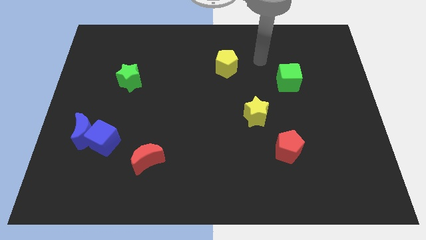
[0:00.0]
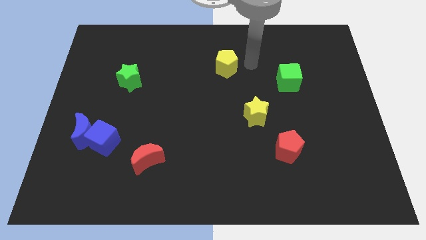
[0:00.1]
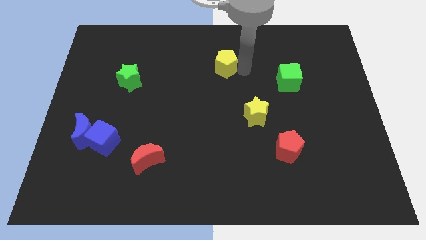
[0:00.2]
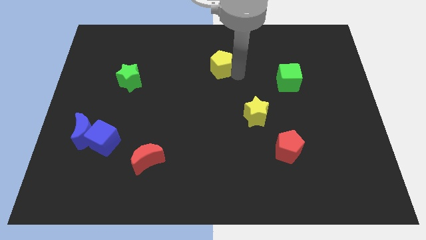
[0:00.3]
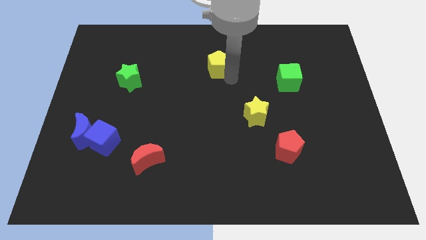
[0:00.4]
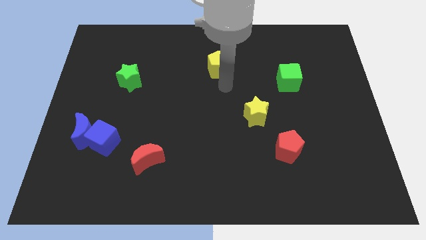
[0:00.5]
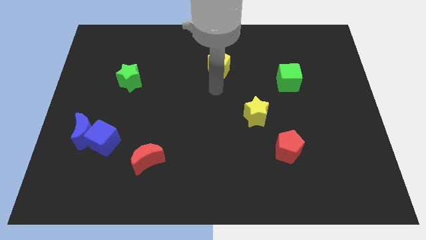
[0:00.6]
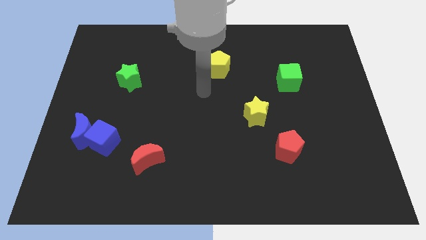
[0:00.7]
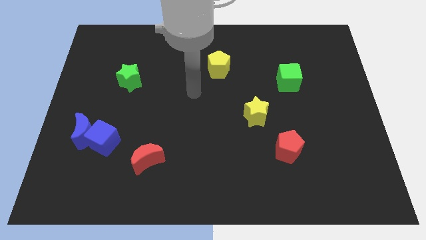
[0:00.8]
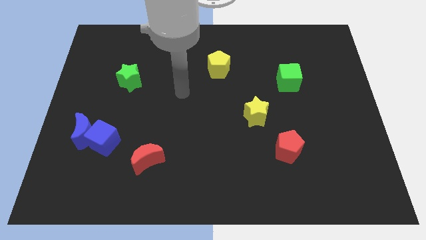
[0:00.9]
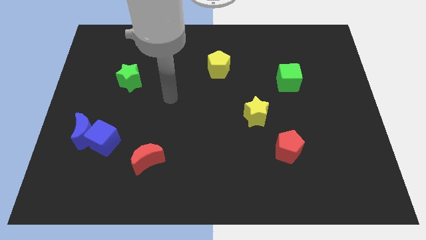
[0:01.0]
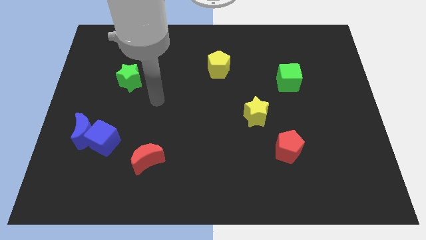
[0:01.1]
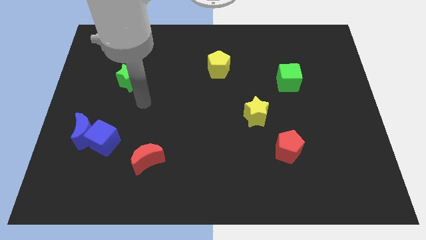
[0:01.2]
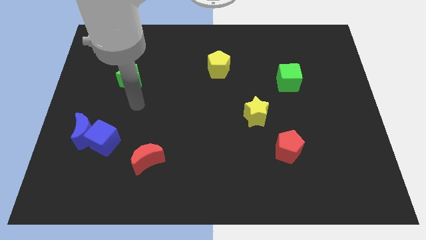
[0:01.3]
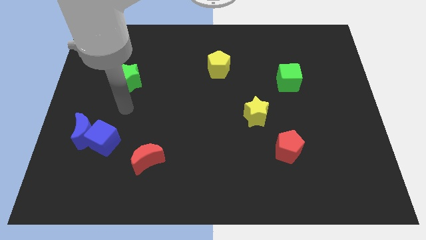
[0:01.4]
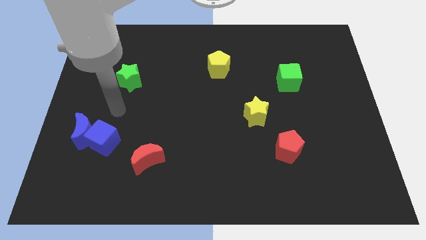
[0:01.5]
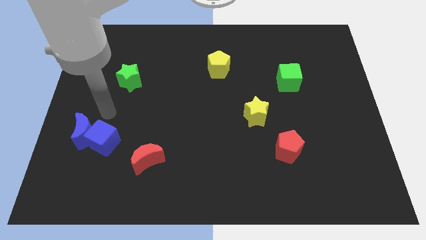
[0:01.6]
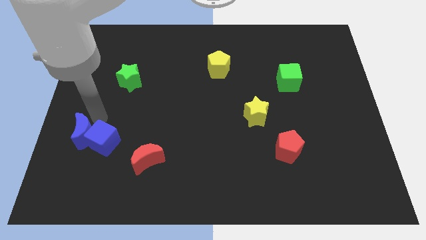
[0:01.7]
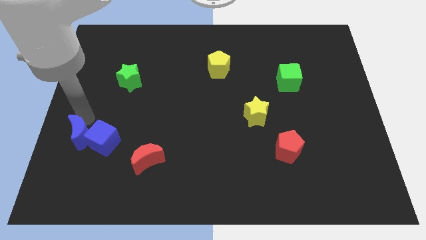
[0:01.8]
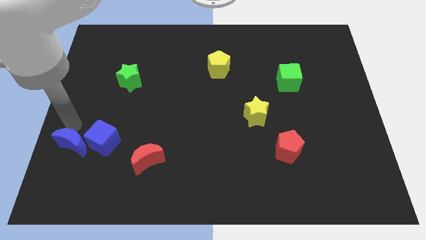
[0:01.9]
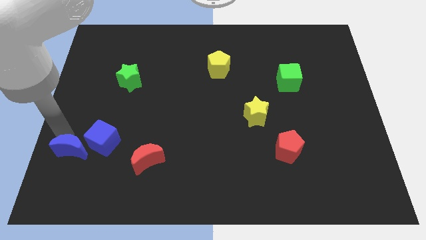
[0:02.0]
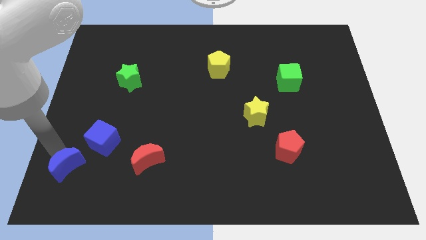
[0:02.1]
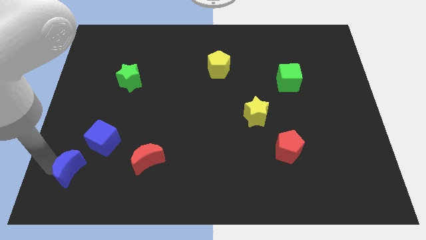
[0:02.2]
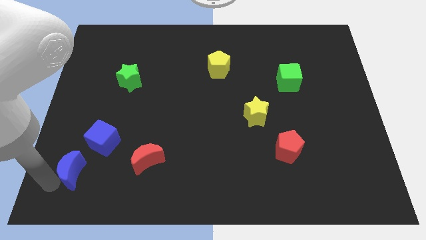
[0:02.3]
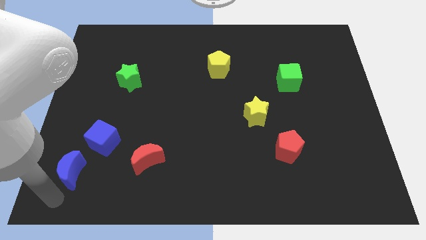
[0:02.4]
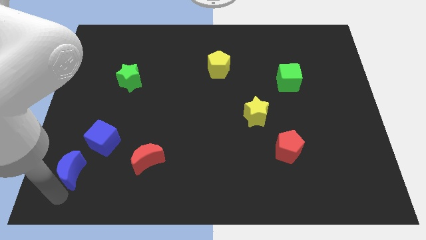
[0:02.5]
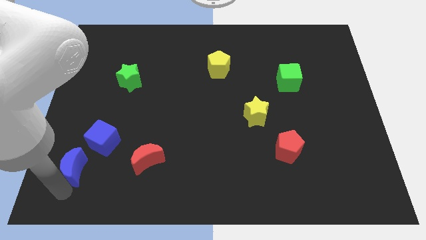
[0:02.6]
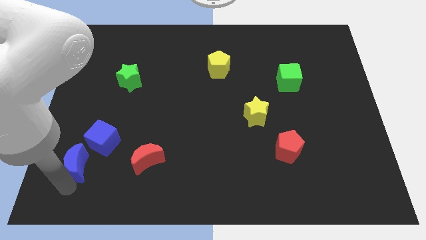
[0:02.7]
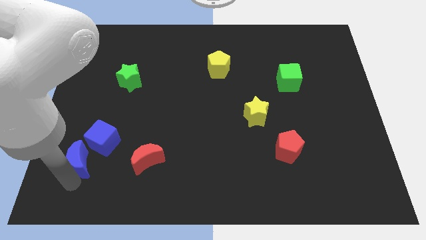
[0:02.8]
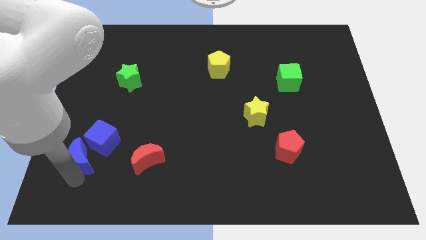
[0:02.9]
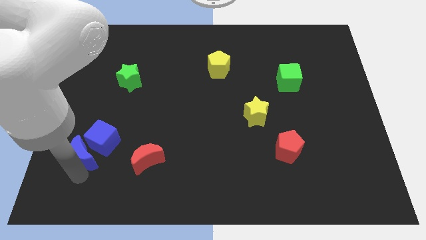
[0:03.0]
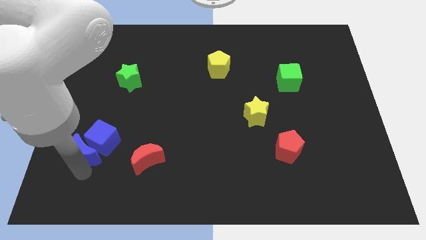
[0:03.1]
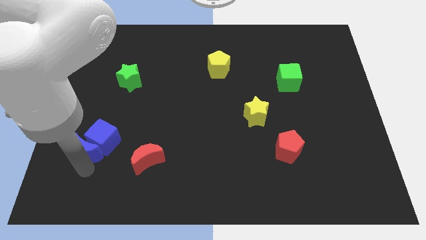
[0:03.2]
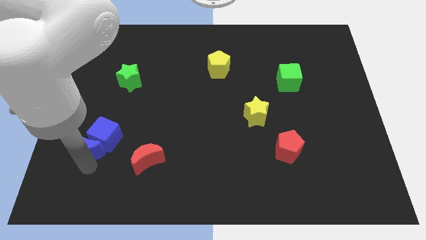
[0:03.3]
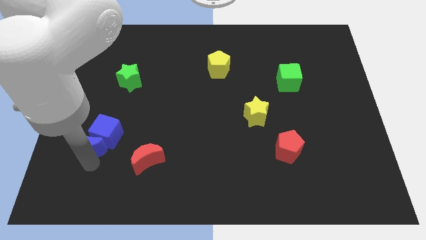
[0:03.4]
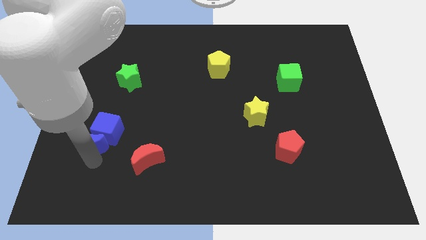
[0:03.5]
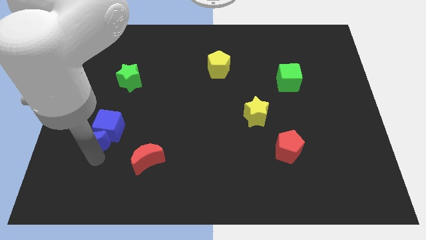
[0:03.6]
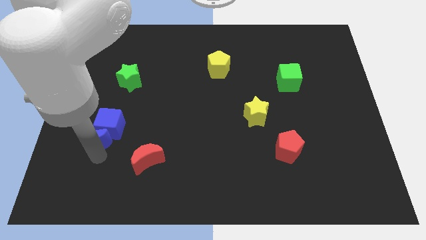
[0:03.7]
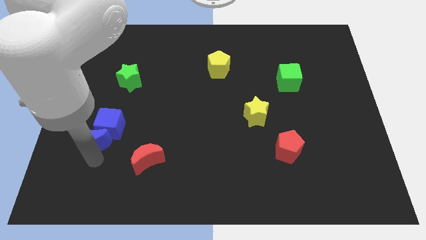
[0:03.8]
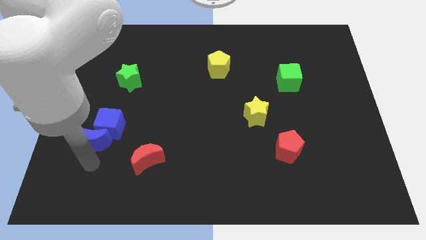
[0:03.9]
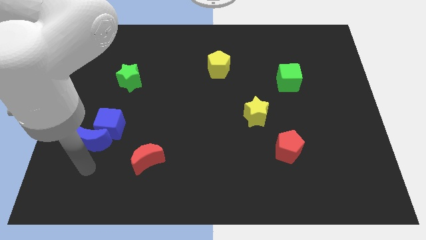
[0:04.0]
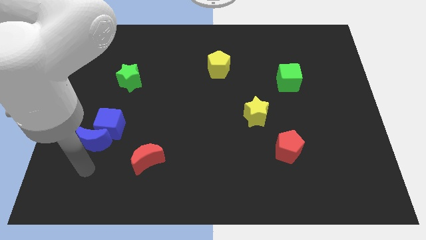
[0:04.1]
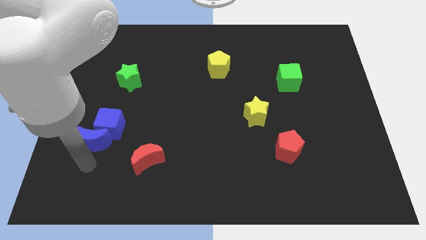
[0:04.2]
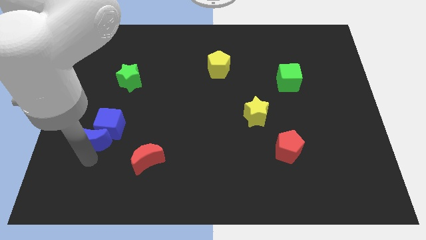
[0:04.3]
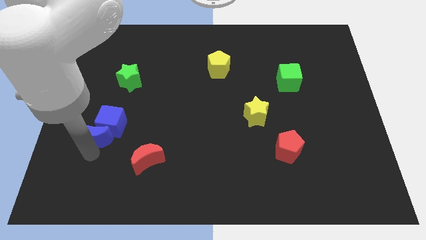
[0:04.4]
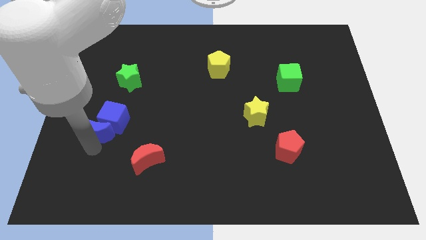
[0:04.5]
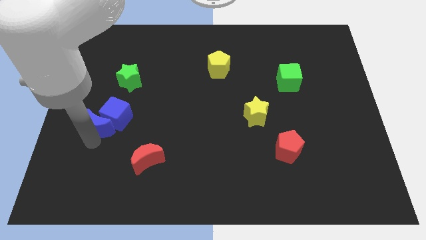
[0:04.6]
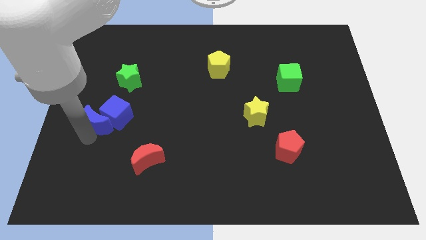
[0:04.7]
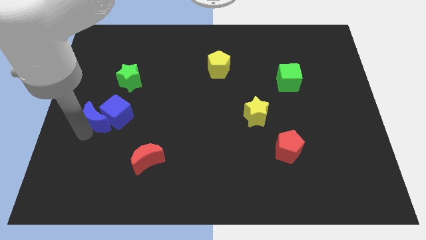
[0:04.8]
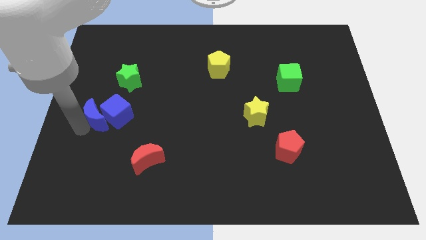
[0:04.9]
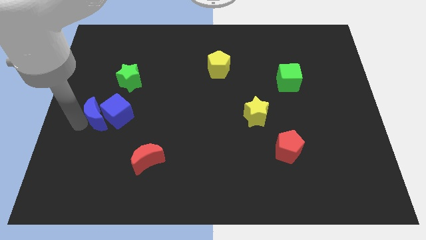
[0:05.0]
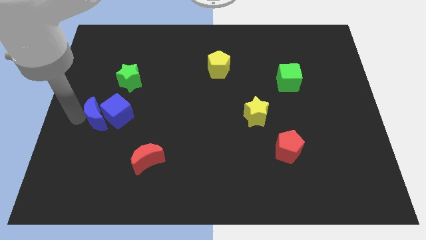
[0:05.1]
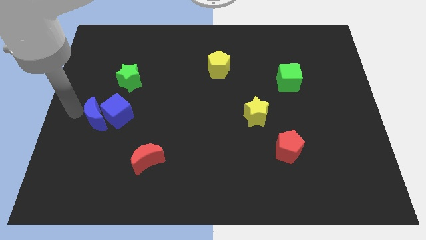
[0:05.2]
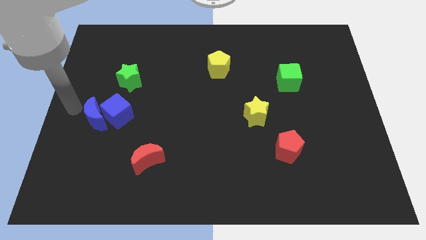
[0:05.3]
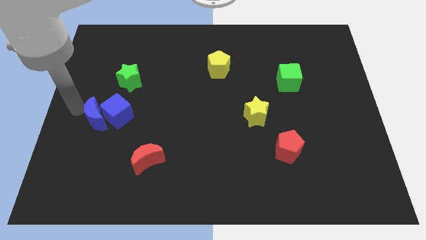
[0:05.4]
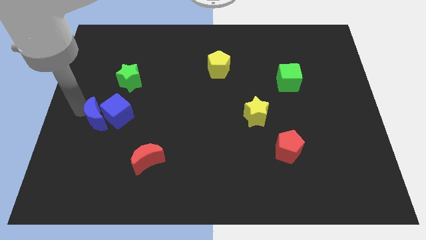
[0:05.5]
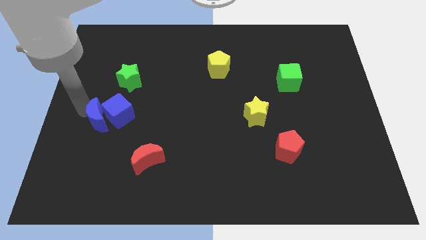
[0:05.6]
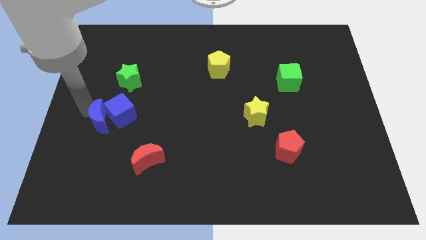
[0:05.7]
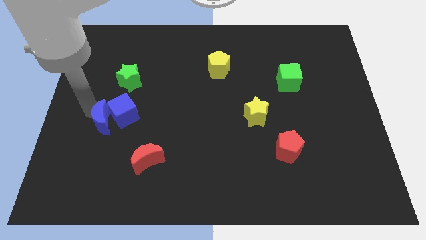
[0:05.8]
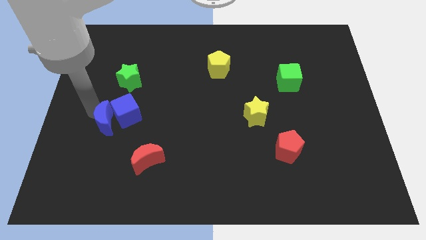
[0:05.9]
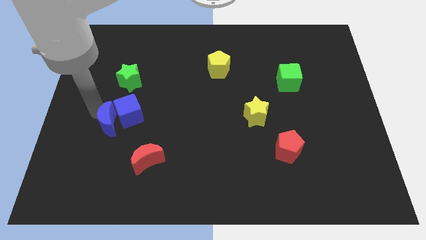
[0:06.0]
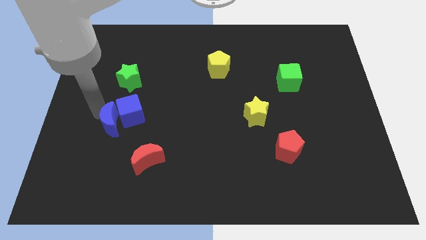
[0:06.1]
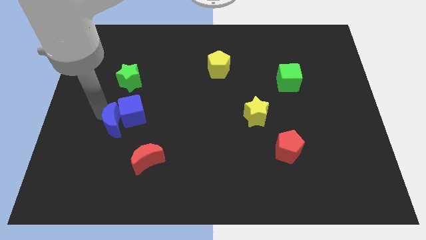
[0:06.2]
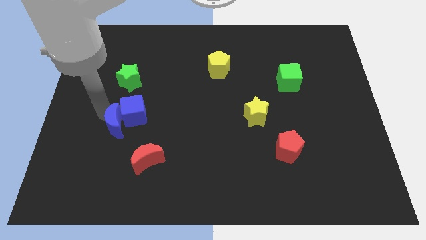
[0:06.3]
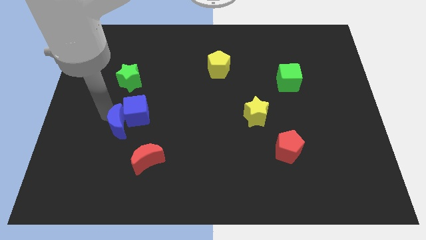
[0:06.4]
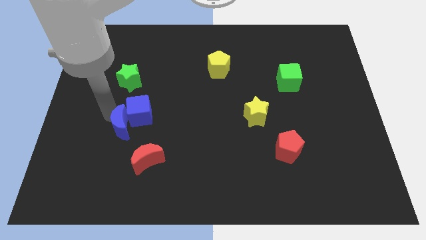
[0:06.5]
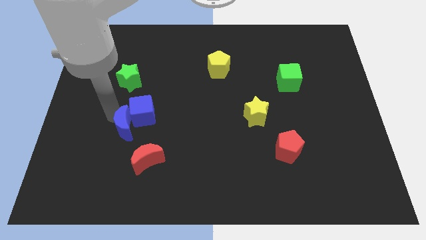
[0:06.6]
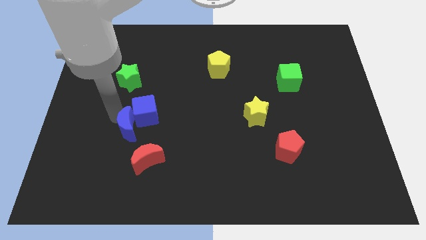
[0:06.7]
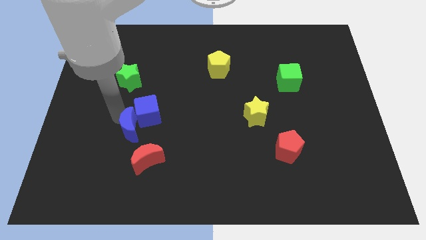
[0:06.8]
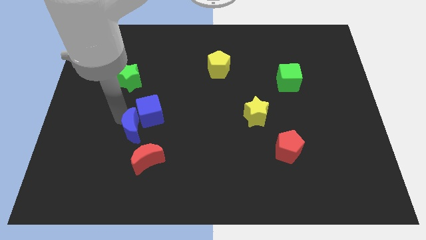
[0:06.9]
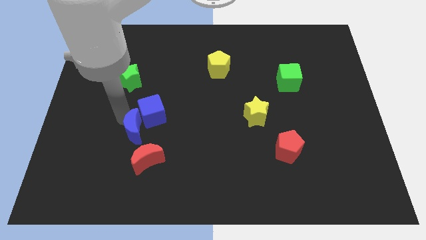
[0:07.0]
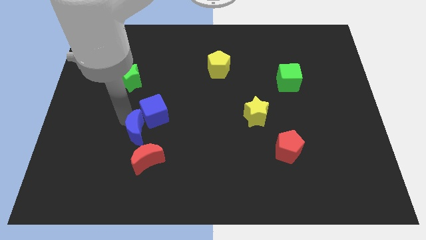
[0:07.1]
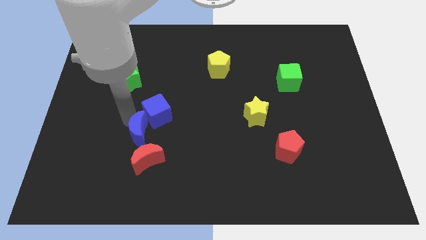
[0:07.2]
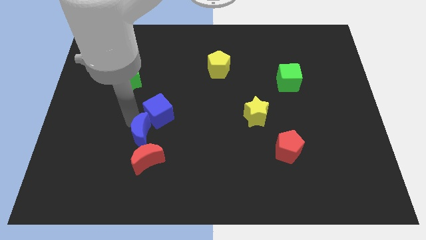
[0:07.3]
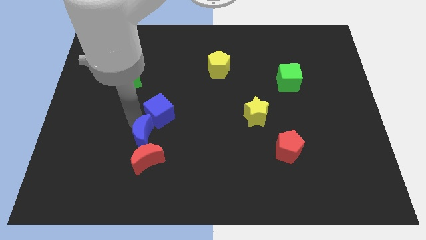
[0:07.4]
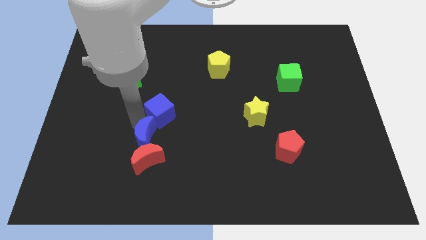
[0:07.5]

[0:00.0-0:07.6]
slide the blue moon to the red moon

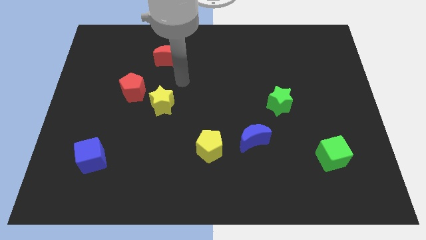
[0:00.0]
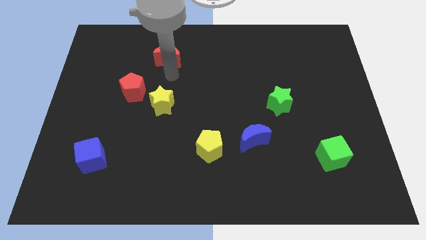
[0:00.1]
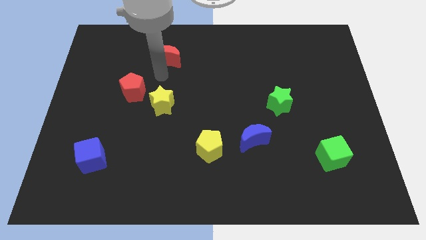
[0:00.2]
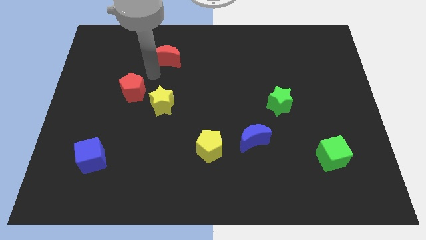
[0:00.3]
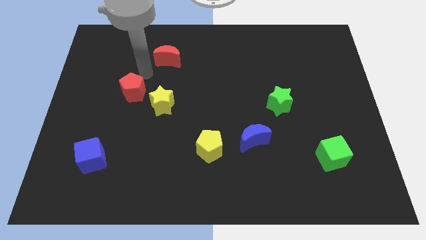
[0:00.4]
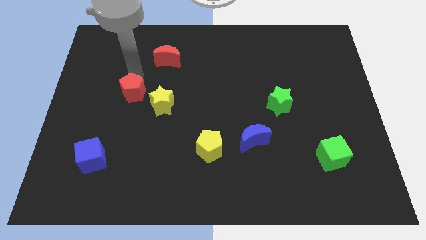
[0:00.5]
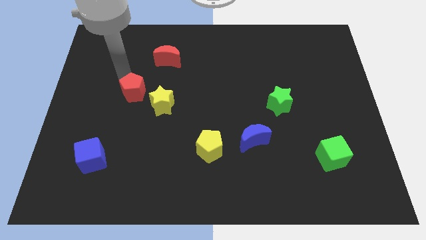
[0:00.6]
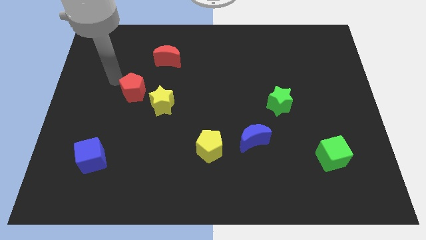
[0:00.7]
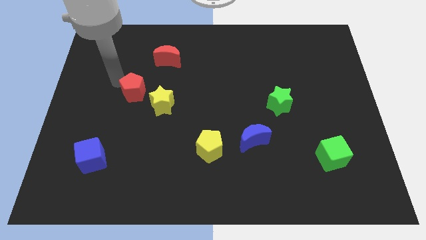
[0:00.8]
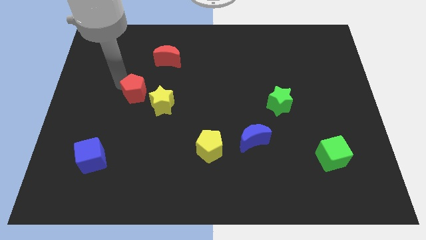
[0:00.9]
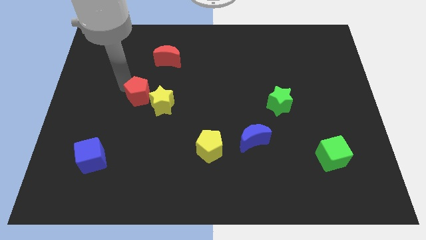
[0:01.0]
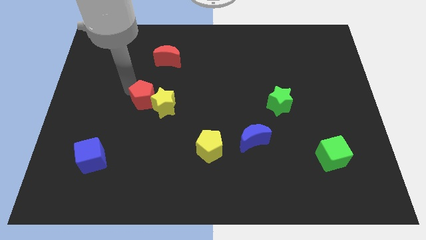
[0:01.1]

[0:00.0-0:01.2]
move the red pentagon to the yellow star
